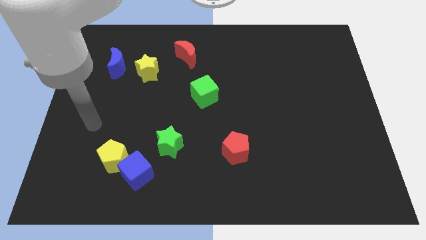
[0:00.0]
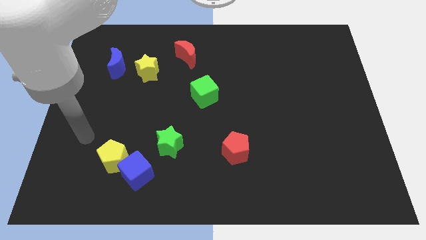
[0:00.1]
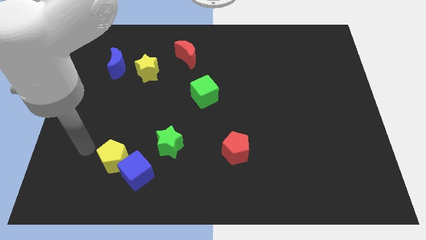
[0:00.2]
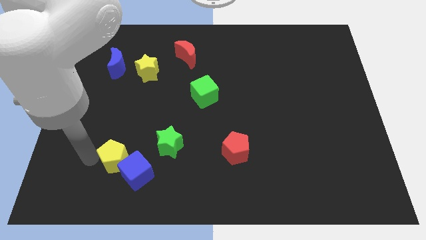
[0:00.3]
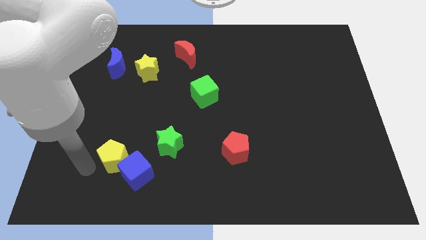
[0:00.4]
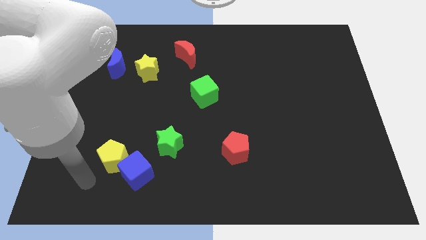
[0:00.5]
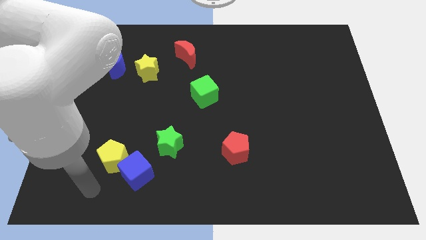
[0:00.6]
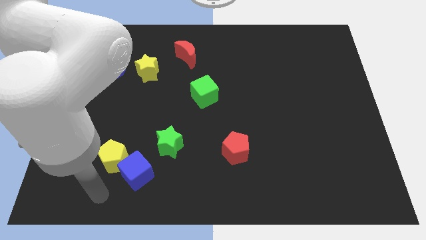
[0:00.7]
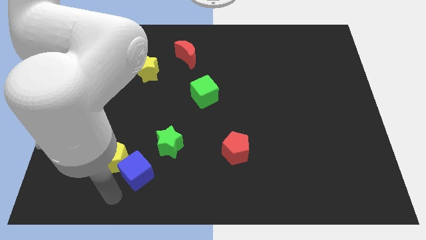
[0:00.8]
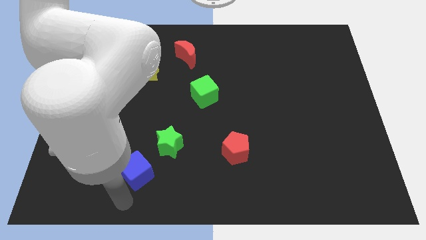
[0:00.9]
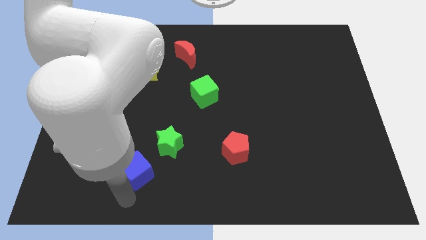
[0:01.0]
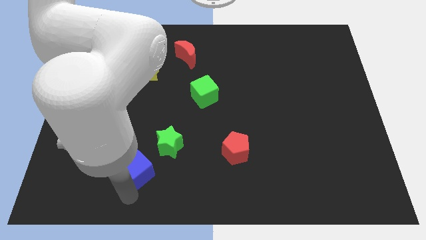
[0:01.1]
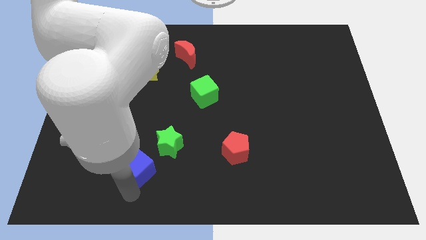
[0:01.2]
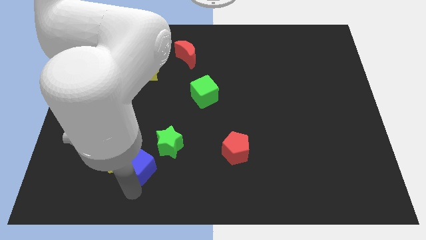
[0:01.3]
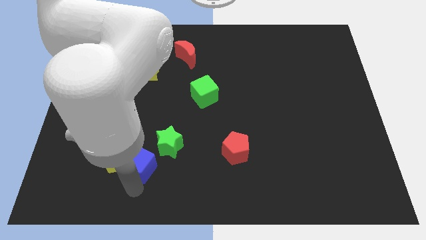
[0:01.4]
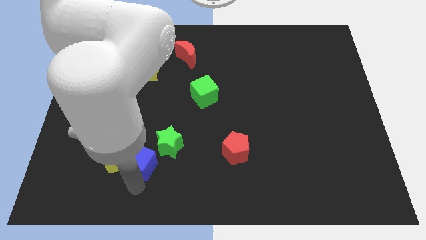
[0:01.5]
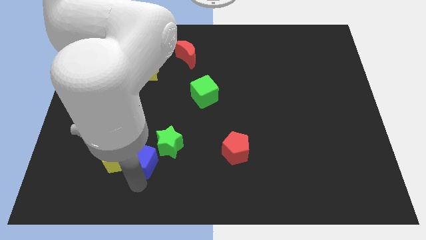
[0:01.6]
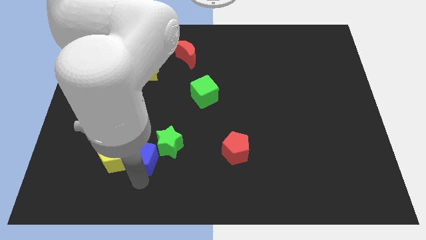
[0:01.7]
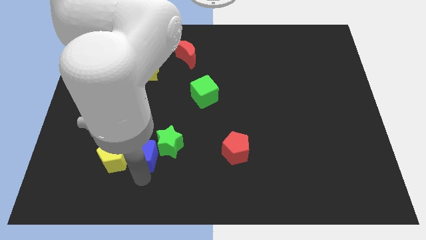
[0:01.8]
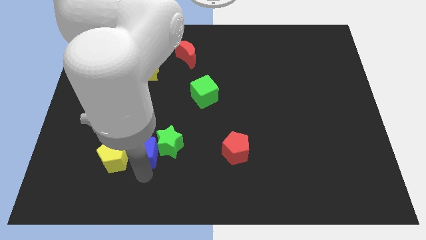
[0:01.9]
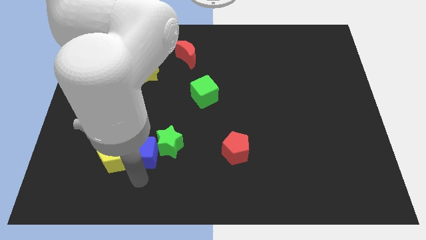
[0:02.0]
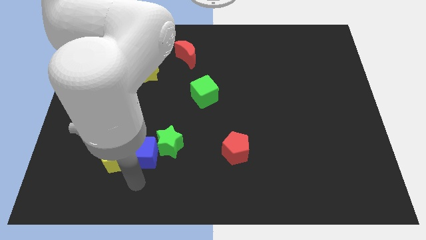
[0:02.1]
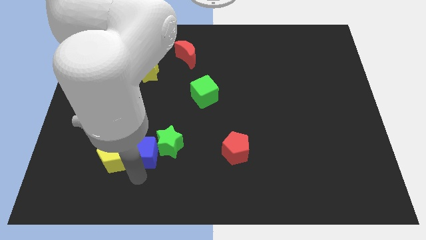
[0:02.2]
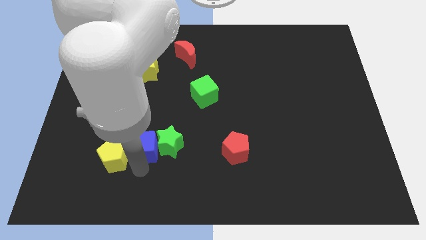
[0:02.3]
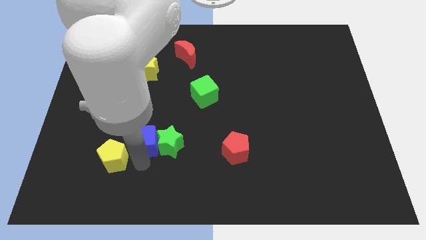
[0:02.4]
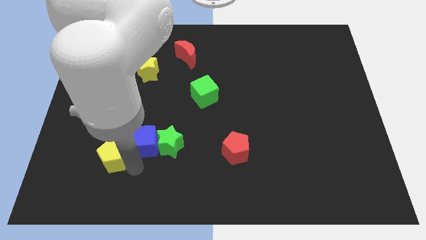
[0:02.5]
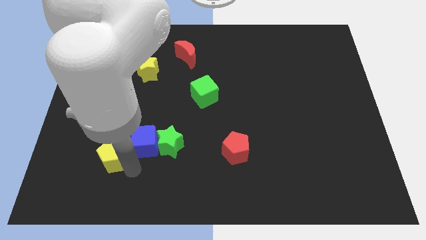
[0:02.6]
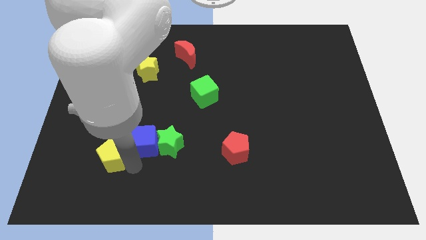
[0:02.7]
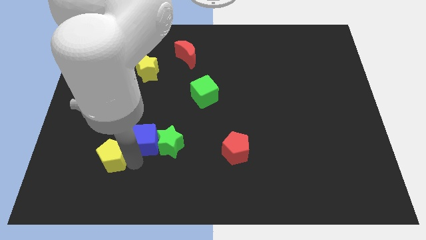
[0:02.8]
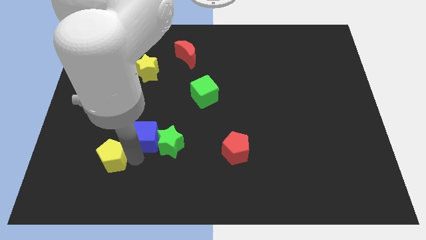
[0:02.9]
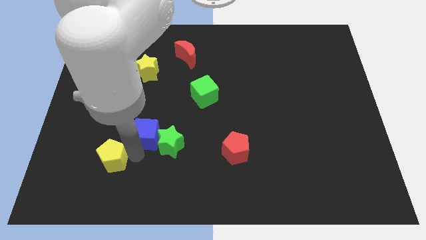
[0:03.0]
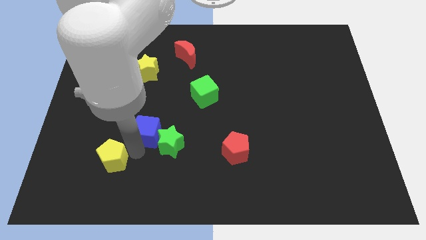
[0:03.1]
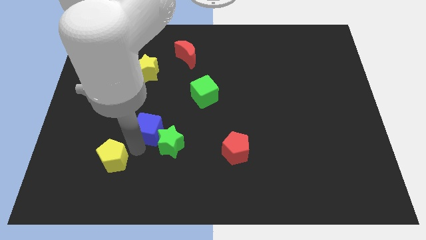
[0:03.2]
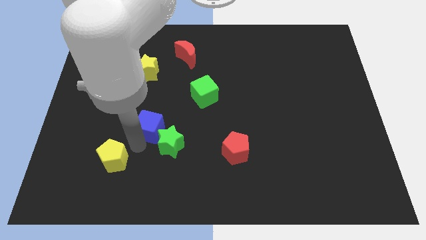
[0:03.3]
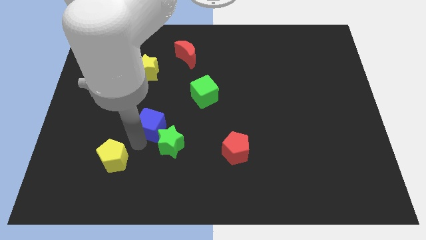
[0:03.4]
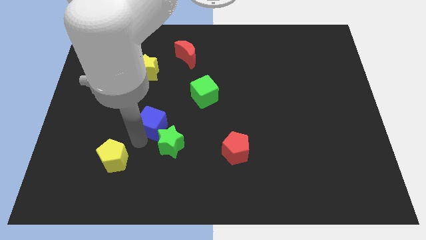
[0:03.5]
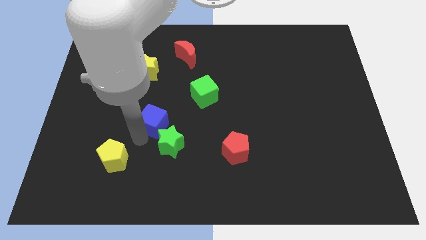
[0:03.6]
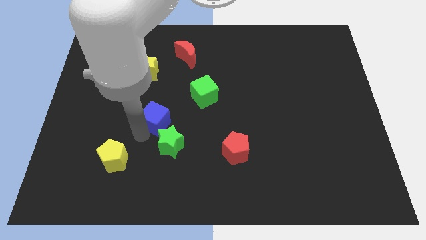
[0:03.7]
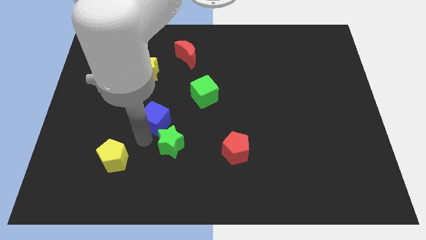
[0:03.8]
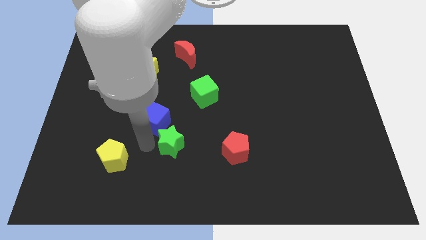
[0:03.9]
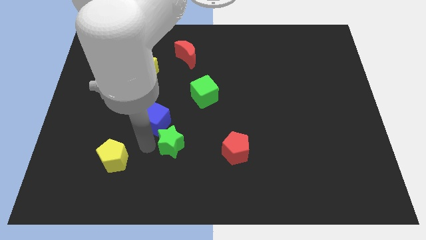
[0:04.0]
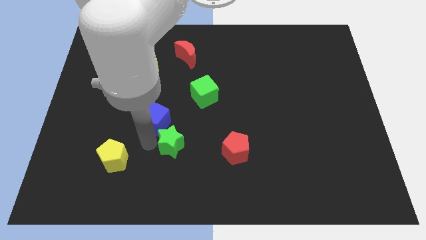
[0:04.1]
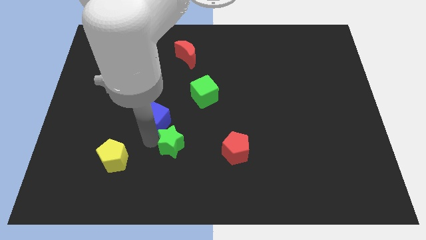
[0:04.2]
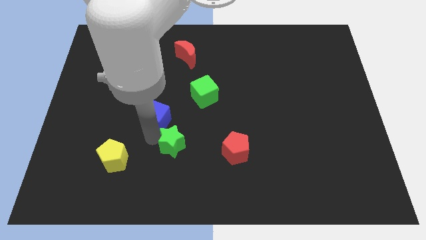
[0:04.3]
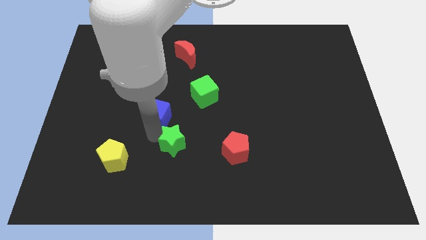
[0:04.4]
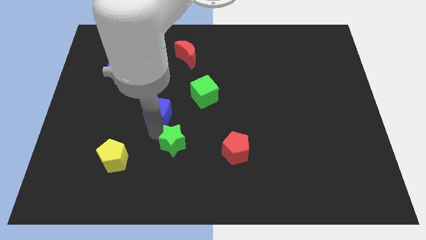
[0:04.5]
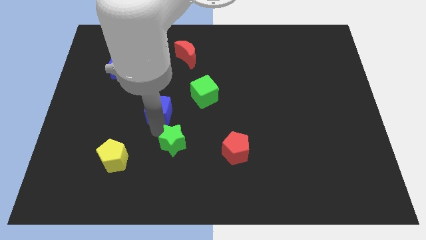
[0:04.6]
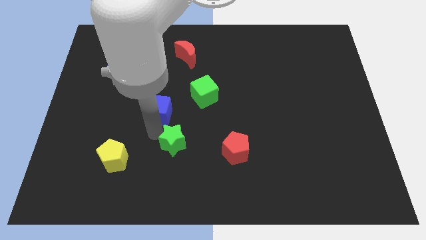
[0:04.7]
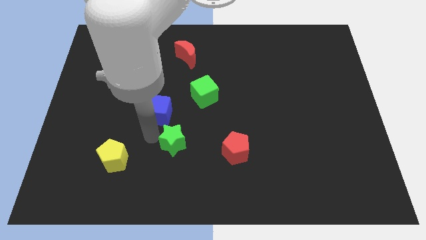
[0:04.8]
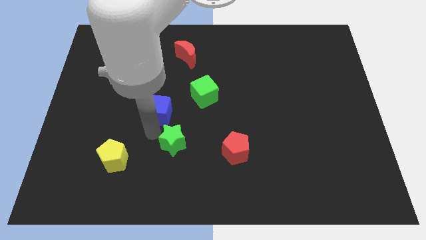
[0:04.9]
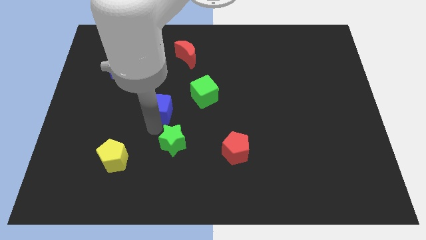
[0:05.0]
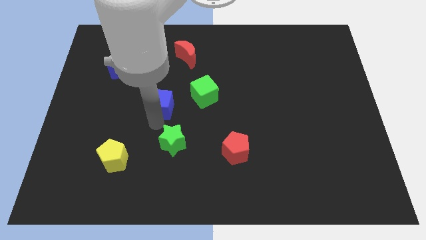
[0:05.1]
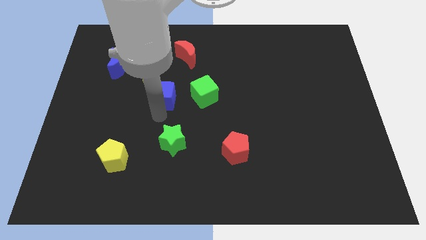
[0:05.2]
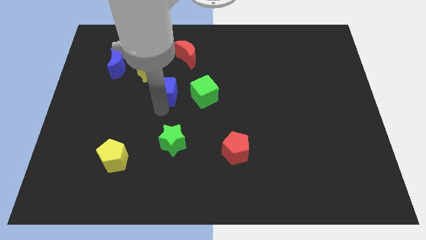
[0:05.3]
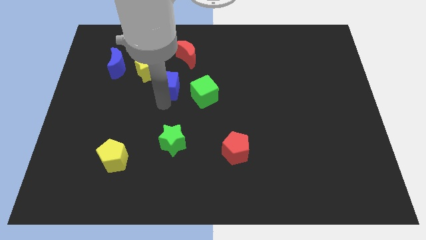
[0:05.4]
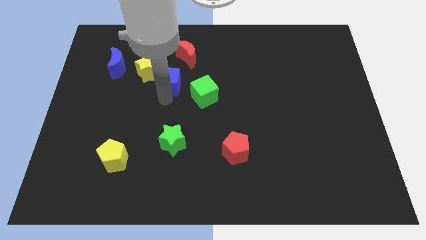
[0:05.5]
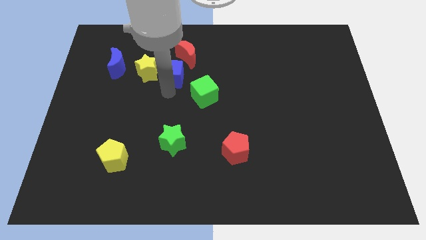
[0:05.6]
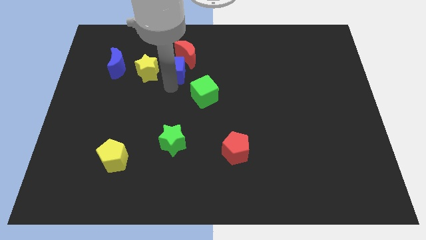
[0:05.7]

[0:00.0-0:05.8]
put the blue cube to the top right of the yellow star
